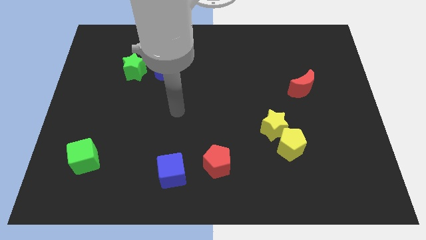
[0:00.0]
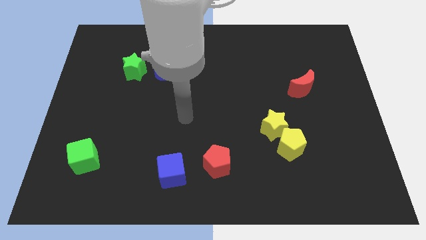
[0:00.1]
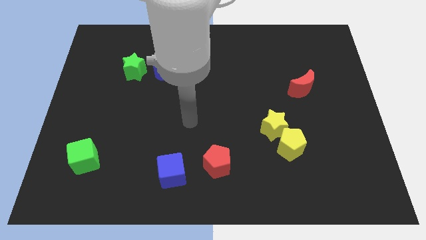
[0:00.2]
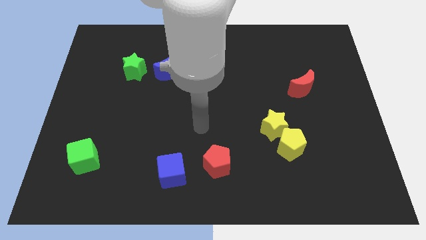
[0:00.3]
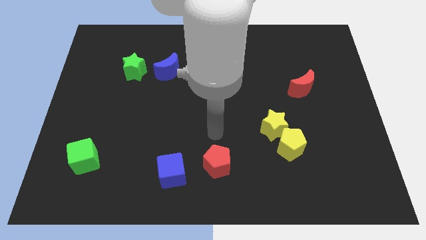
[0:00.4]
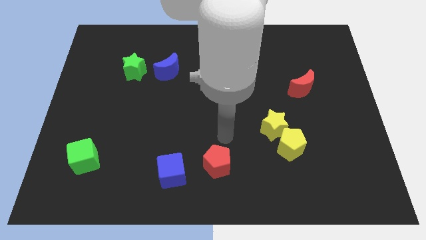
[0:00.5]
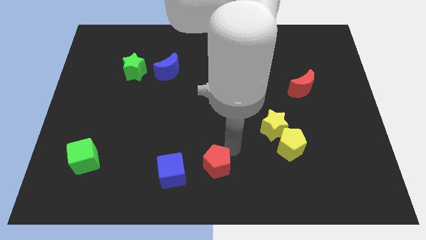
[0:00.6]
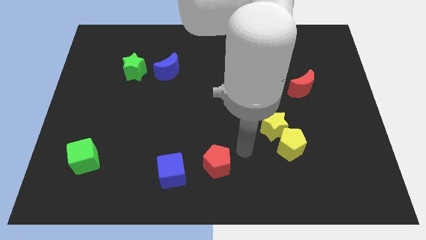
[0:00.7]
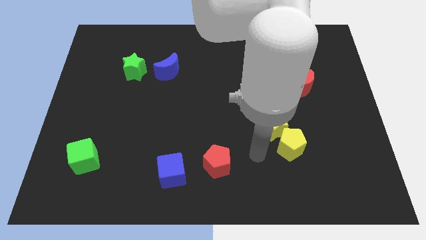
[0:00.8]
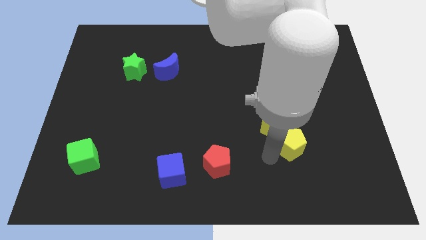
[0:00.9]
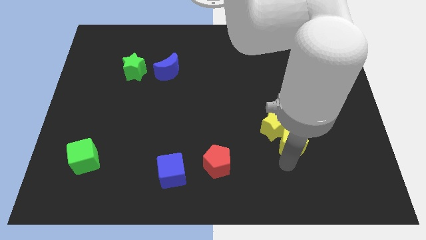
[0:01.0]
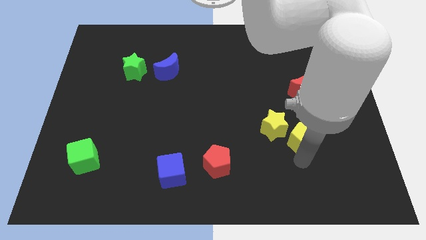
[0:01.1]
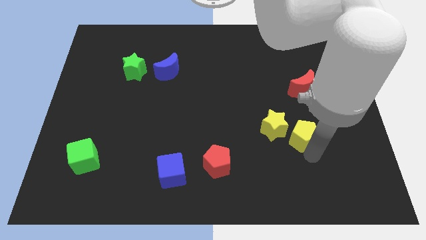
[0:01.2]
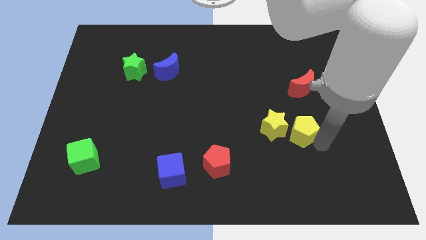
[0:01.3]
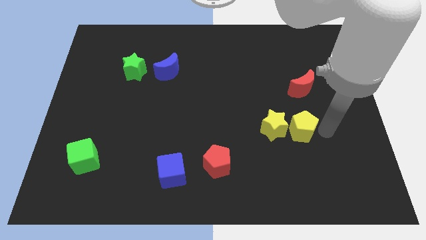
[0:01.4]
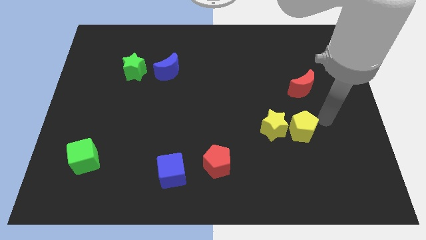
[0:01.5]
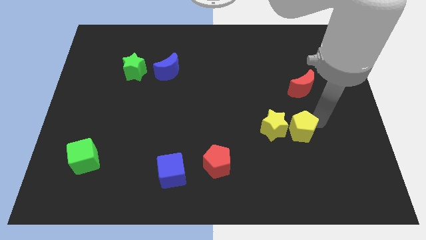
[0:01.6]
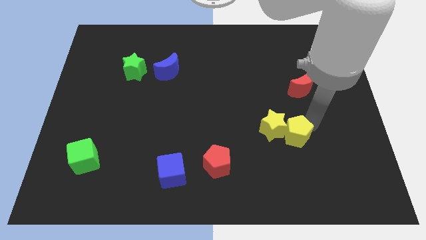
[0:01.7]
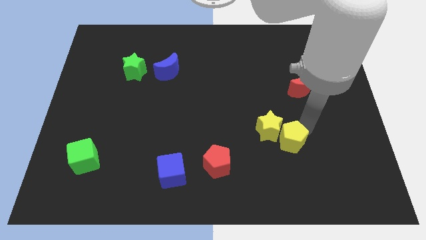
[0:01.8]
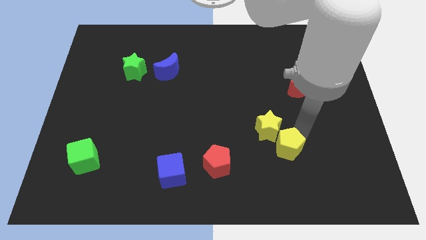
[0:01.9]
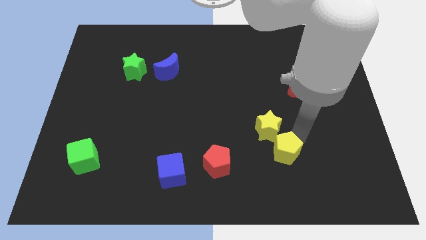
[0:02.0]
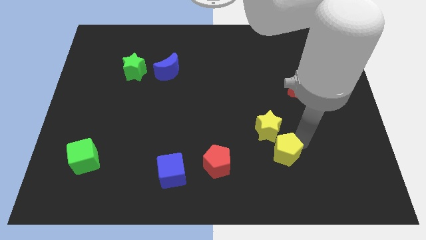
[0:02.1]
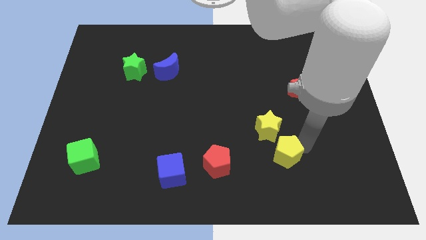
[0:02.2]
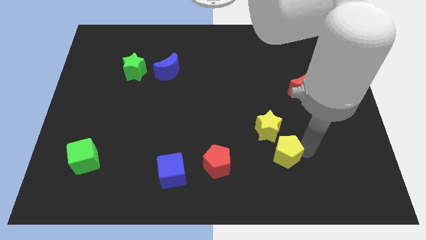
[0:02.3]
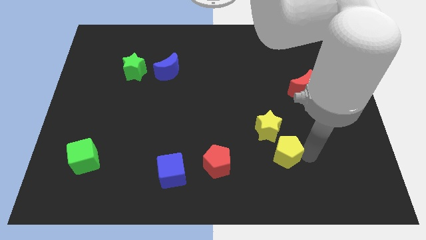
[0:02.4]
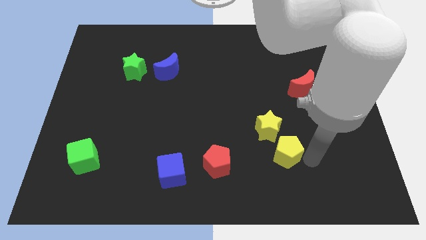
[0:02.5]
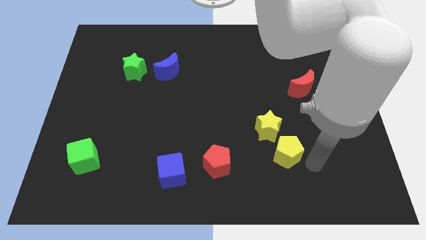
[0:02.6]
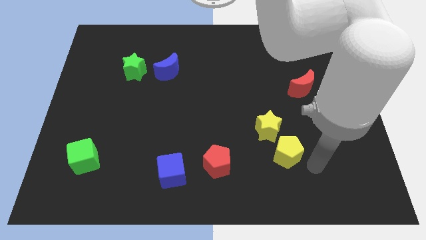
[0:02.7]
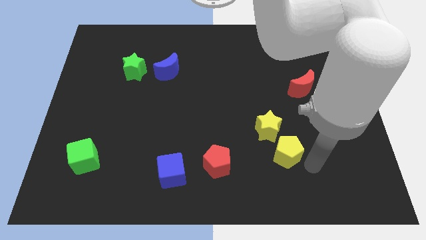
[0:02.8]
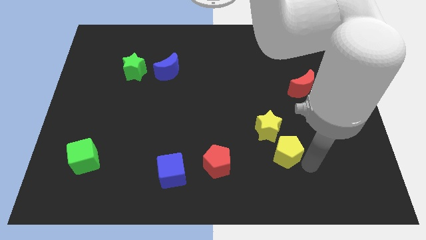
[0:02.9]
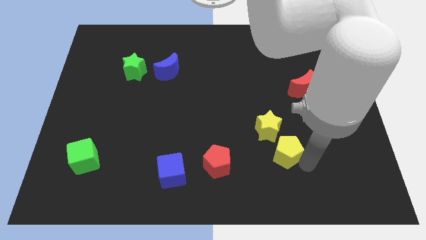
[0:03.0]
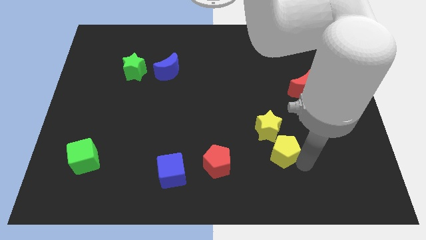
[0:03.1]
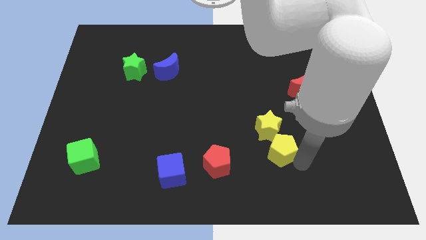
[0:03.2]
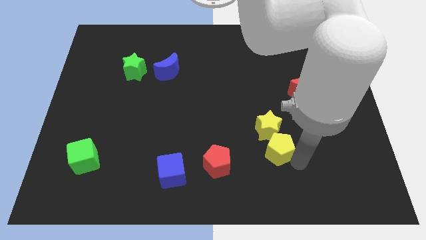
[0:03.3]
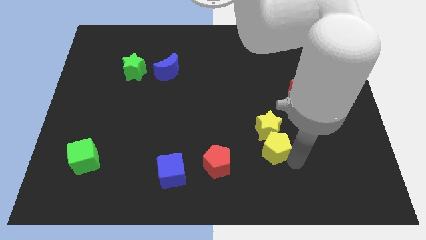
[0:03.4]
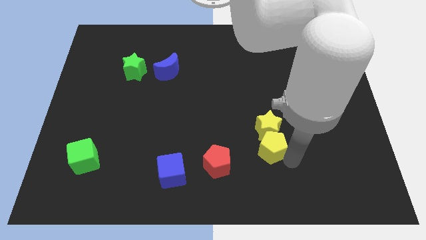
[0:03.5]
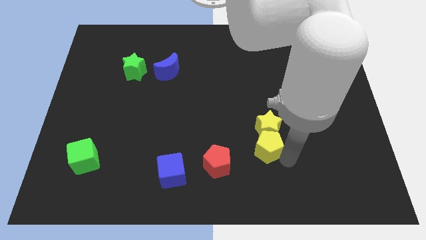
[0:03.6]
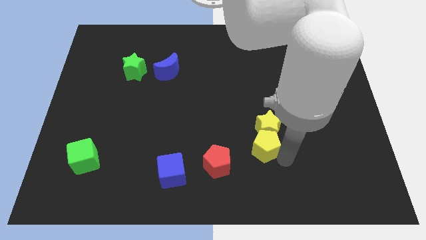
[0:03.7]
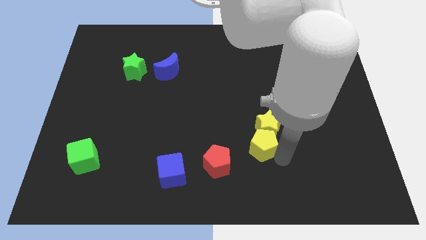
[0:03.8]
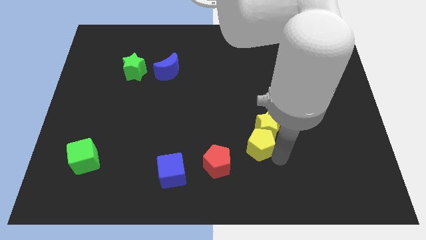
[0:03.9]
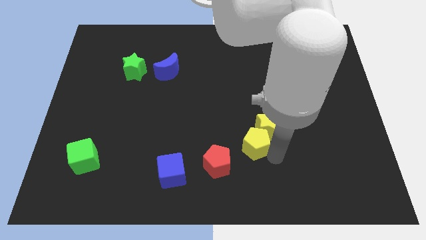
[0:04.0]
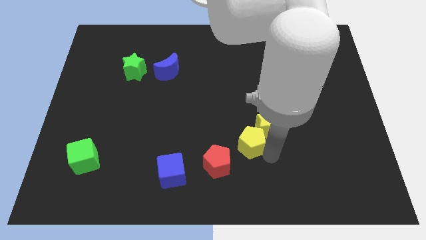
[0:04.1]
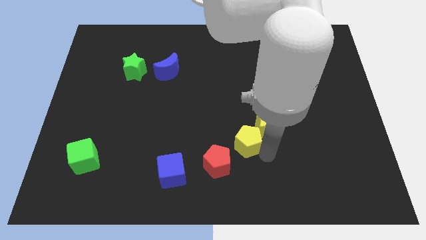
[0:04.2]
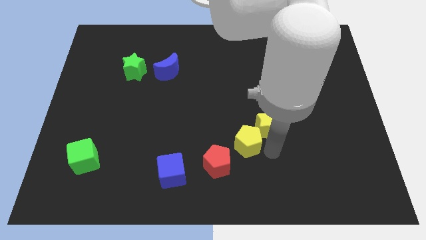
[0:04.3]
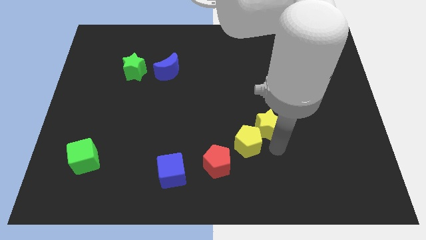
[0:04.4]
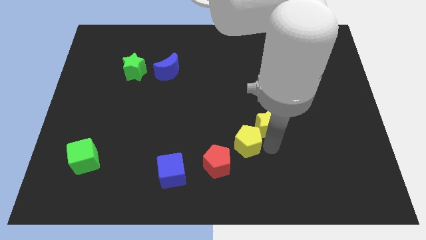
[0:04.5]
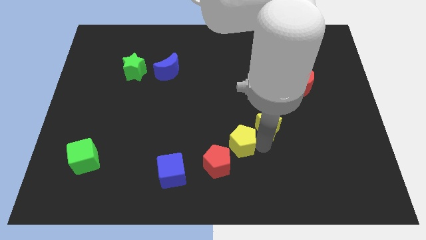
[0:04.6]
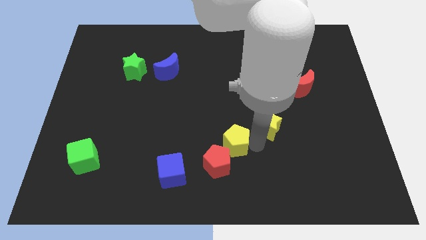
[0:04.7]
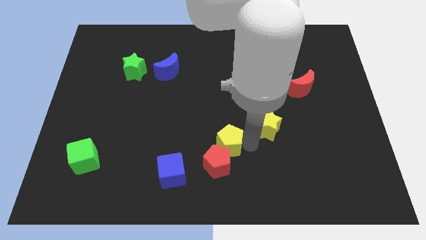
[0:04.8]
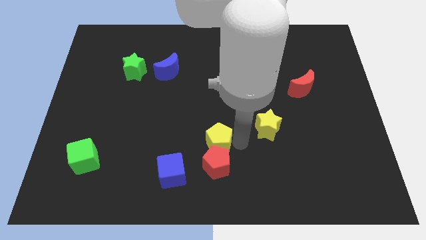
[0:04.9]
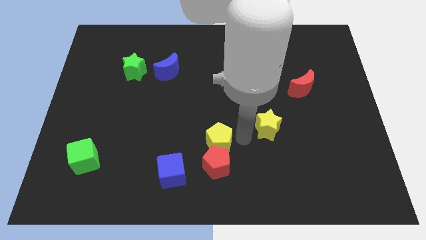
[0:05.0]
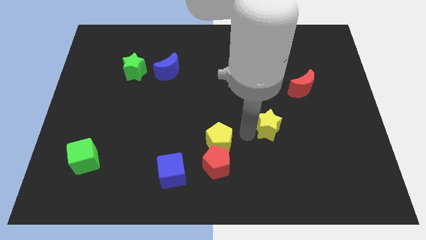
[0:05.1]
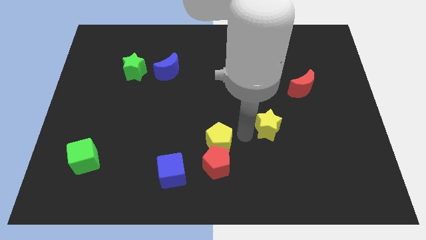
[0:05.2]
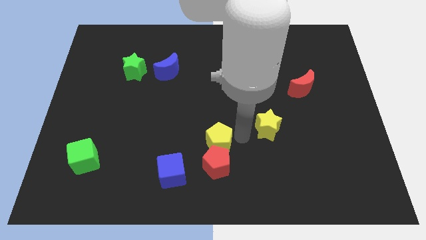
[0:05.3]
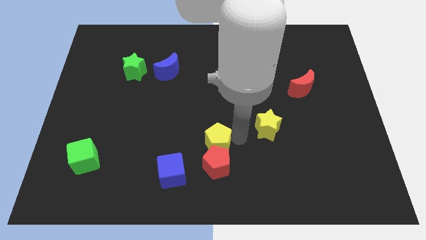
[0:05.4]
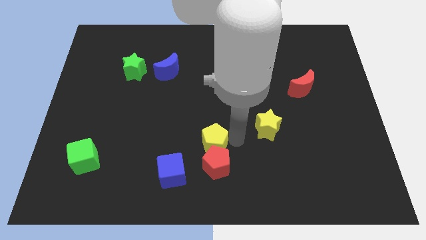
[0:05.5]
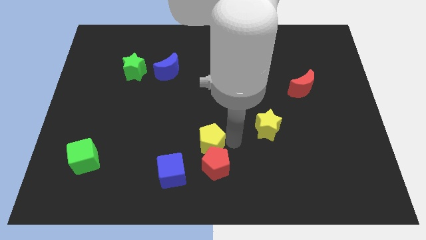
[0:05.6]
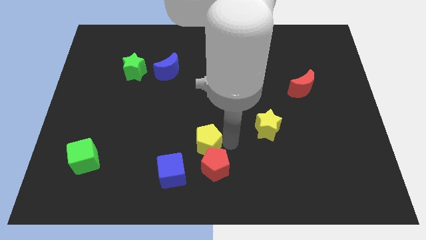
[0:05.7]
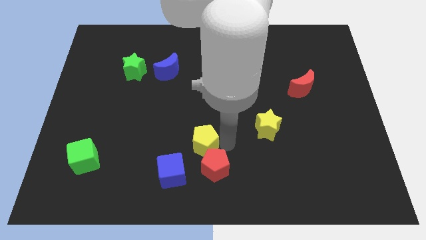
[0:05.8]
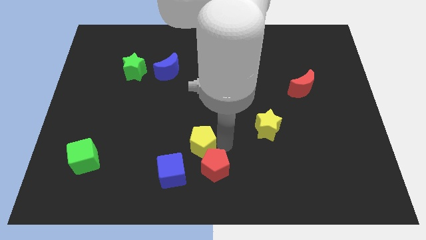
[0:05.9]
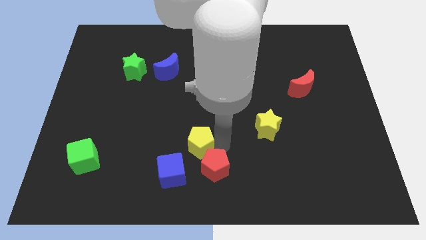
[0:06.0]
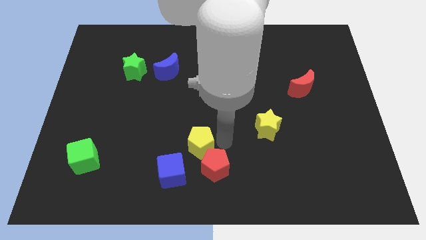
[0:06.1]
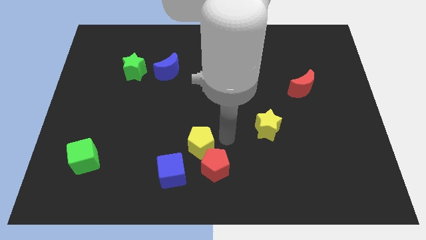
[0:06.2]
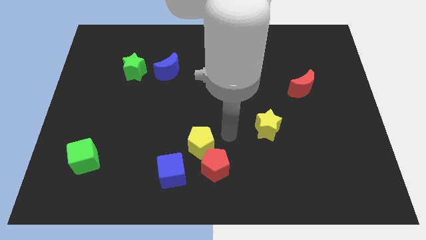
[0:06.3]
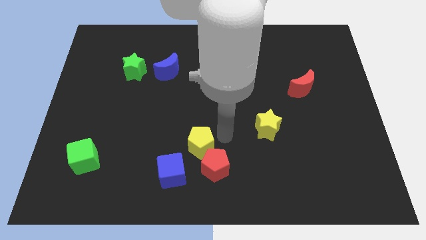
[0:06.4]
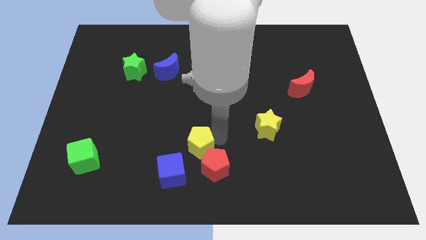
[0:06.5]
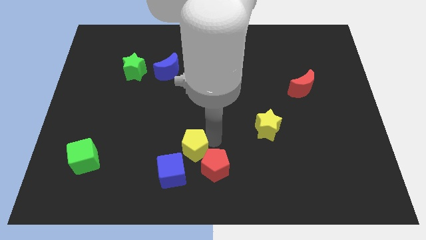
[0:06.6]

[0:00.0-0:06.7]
push the yellow pentagon left of the red pentagon
